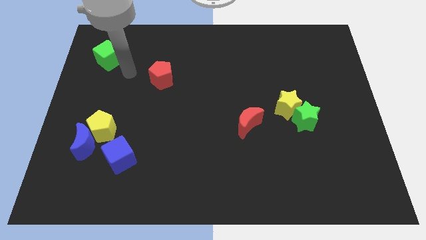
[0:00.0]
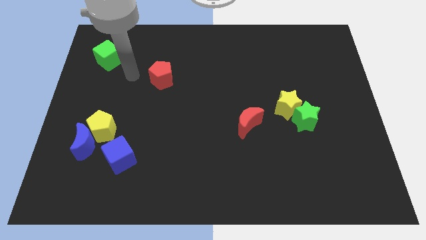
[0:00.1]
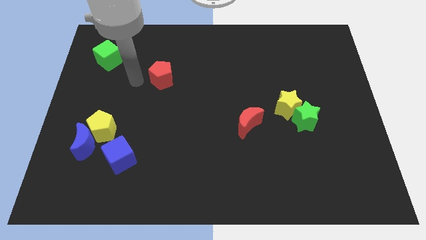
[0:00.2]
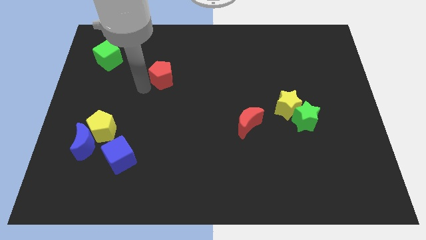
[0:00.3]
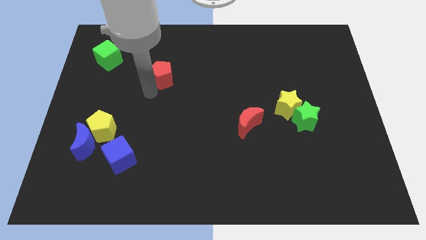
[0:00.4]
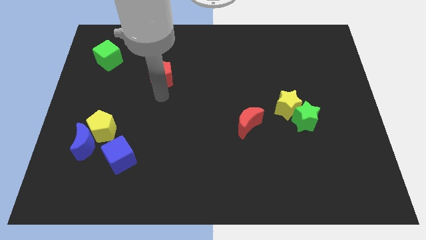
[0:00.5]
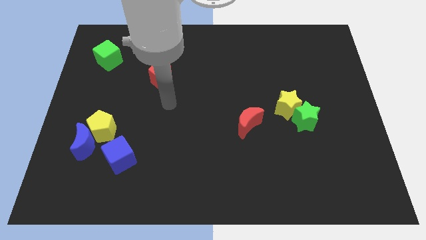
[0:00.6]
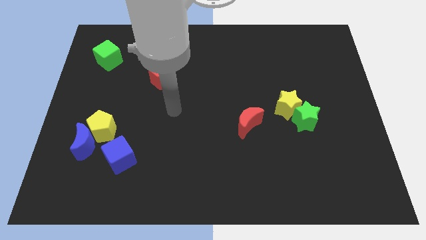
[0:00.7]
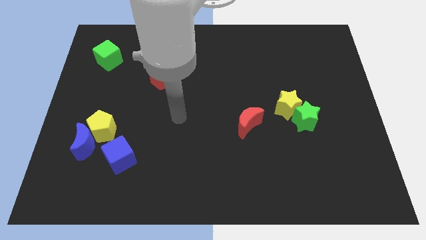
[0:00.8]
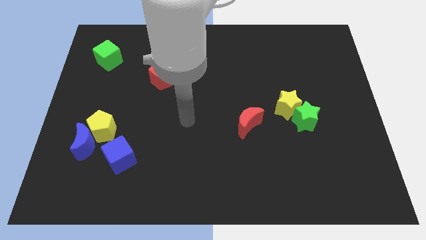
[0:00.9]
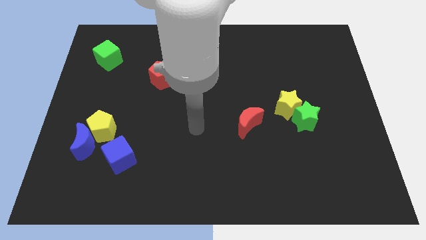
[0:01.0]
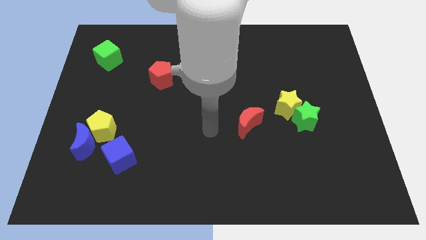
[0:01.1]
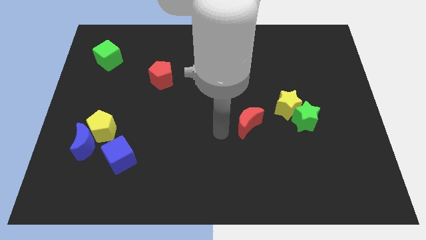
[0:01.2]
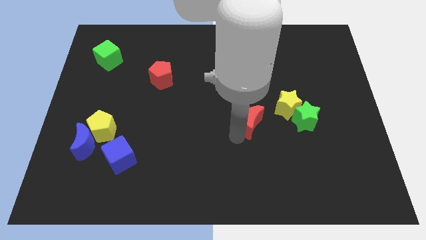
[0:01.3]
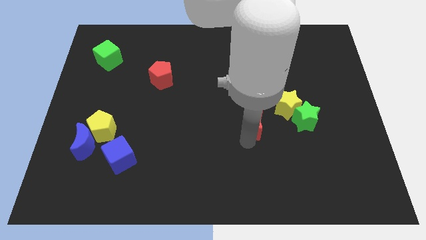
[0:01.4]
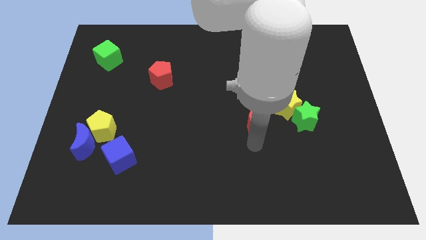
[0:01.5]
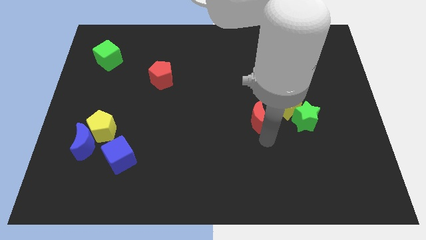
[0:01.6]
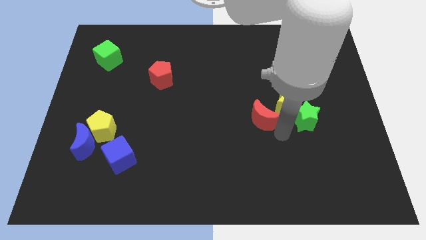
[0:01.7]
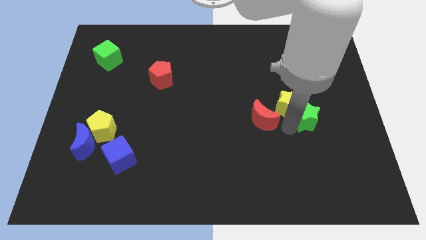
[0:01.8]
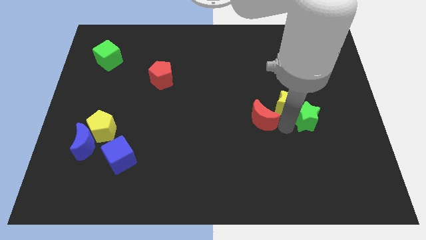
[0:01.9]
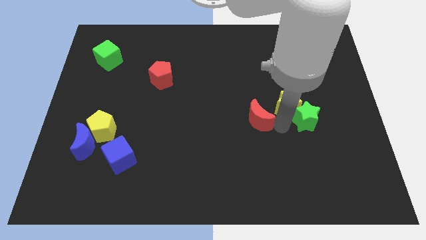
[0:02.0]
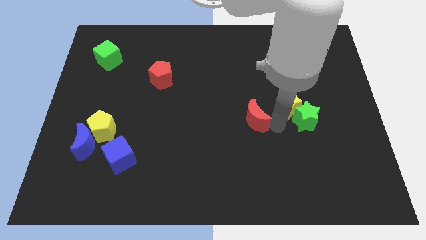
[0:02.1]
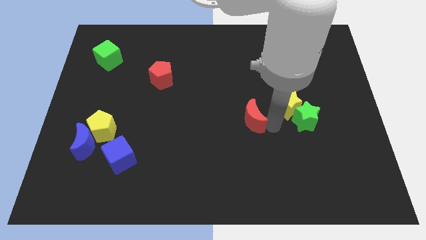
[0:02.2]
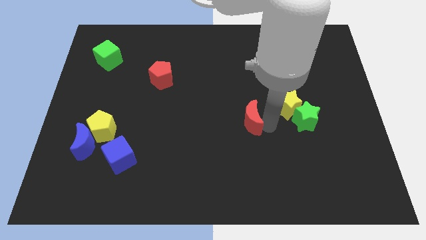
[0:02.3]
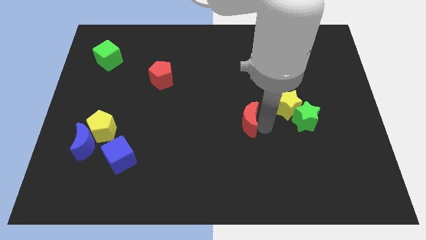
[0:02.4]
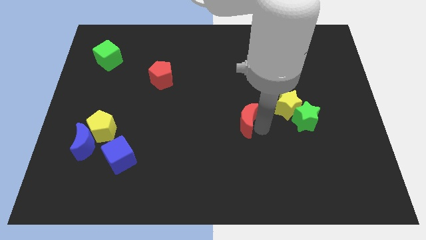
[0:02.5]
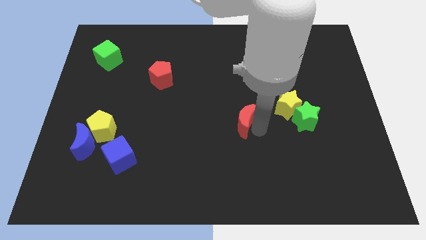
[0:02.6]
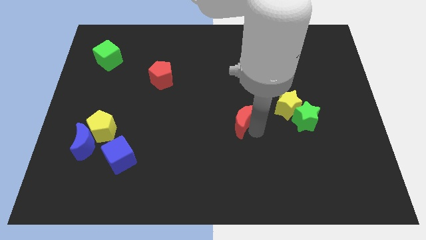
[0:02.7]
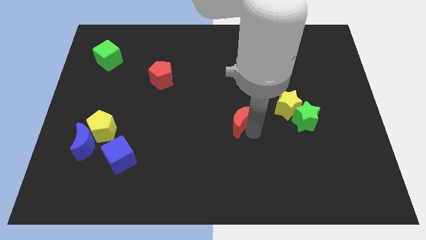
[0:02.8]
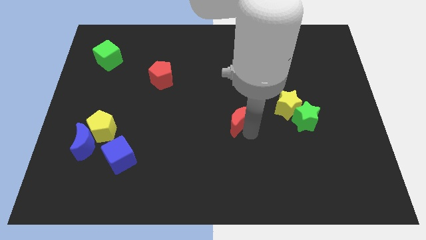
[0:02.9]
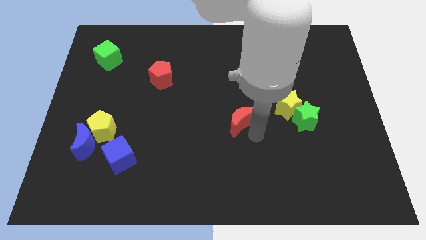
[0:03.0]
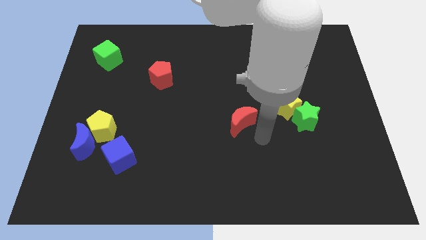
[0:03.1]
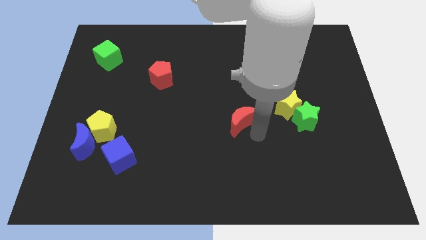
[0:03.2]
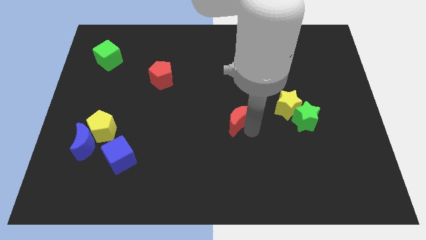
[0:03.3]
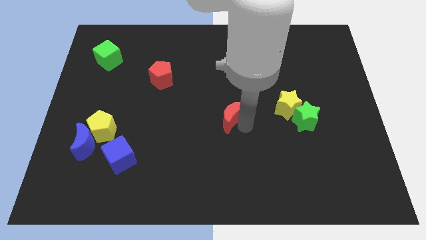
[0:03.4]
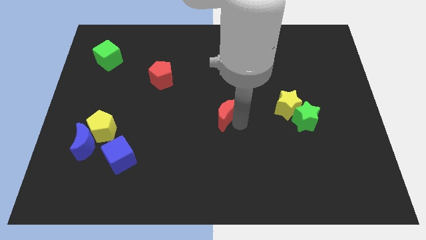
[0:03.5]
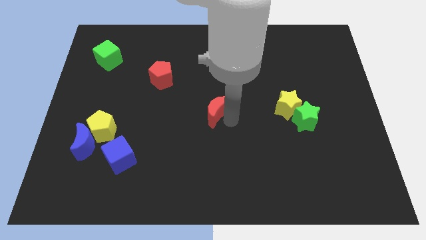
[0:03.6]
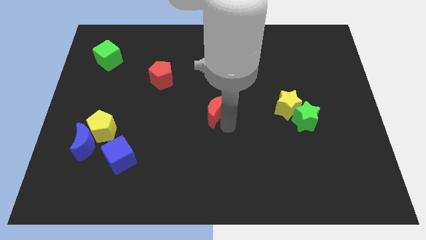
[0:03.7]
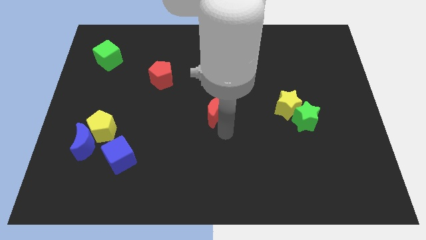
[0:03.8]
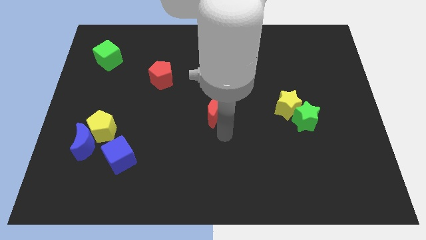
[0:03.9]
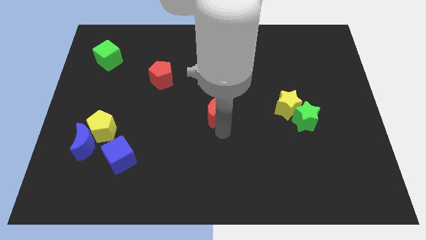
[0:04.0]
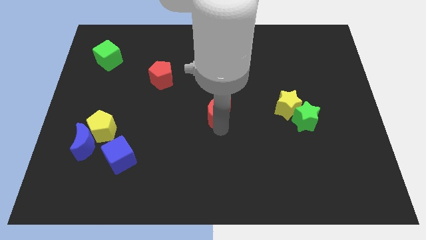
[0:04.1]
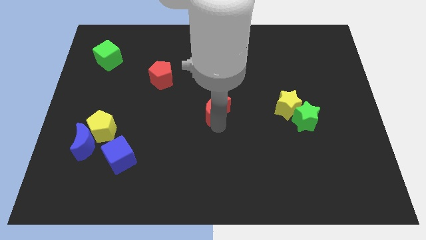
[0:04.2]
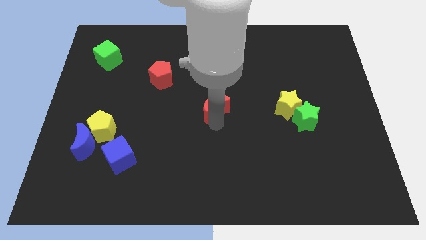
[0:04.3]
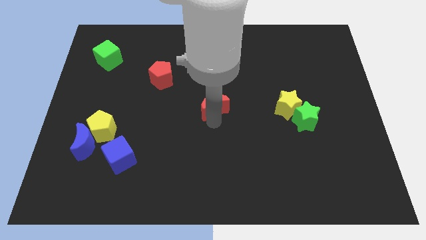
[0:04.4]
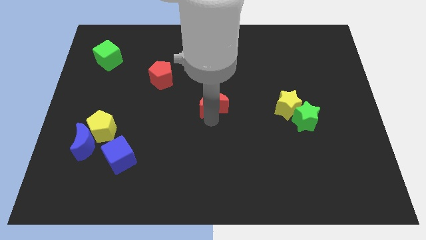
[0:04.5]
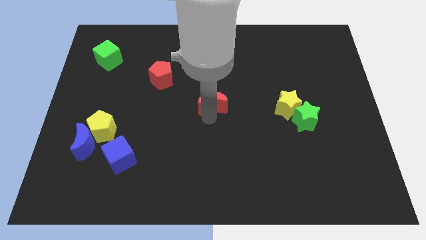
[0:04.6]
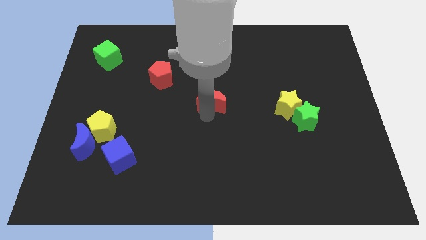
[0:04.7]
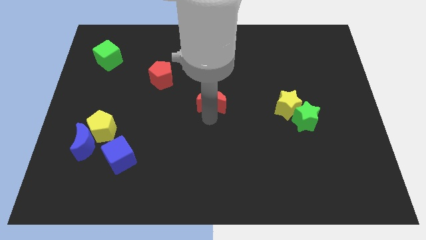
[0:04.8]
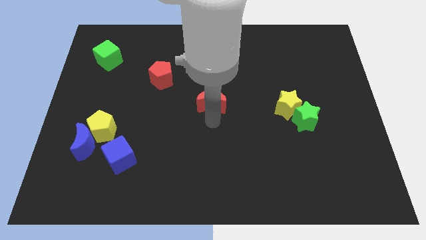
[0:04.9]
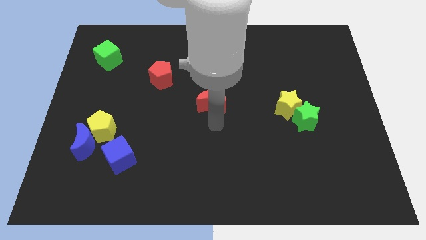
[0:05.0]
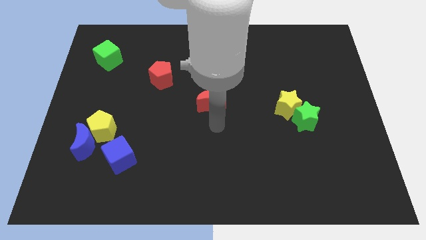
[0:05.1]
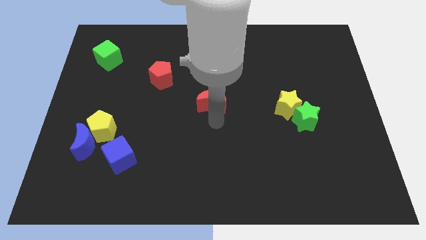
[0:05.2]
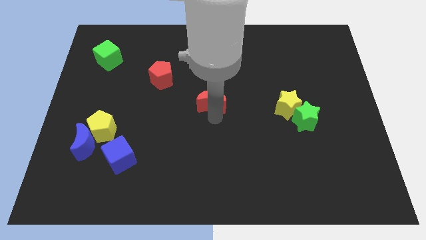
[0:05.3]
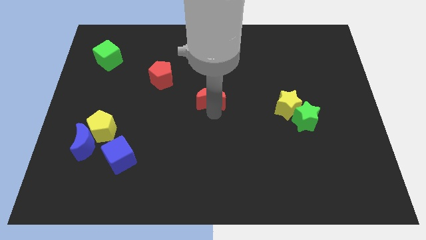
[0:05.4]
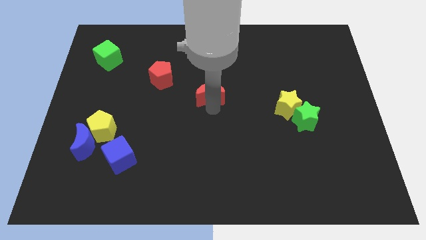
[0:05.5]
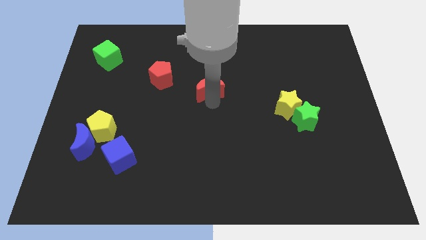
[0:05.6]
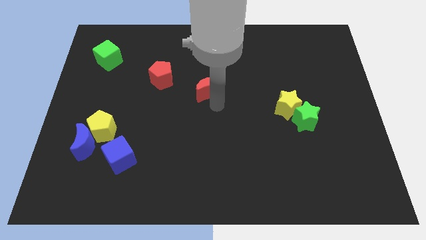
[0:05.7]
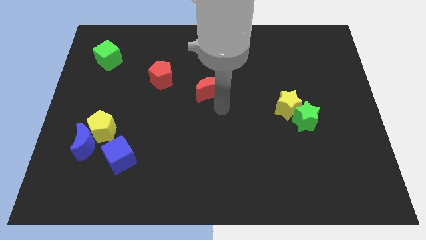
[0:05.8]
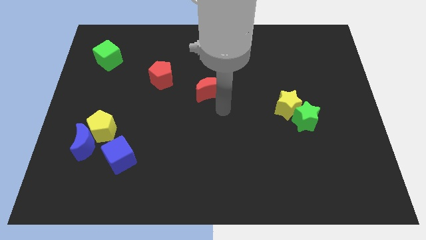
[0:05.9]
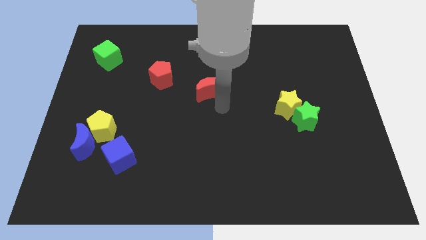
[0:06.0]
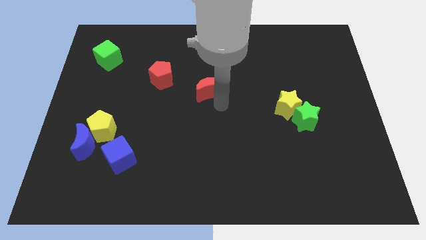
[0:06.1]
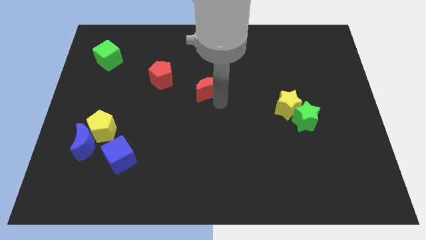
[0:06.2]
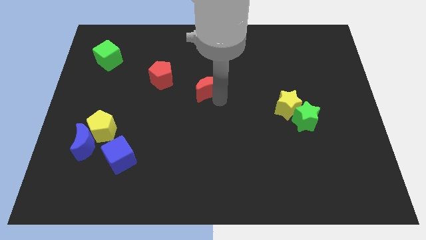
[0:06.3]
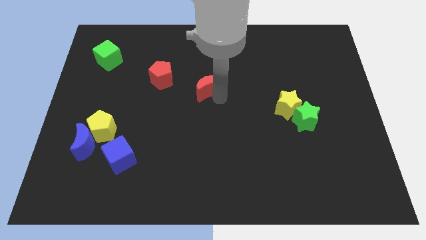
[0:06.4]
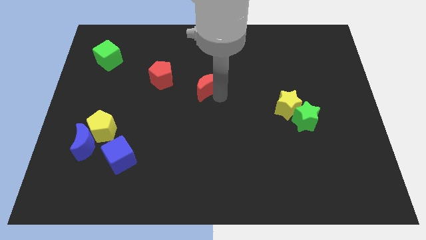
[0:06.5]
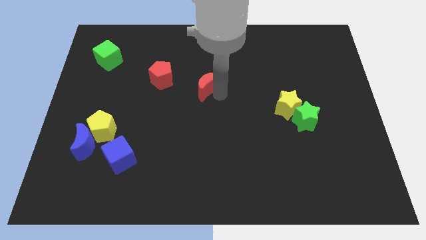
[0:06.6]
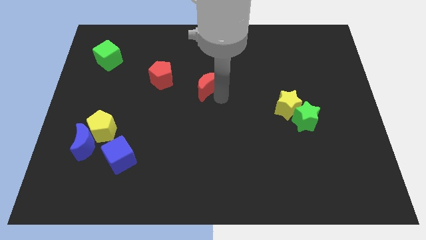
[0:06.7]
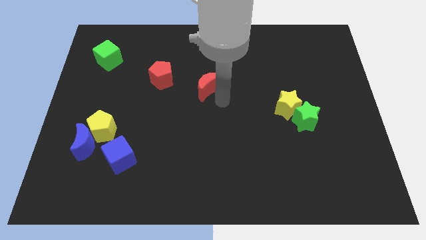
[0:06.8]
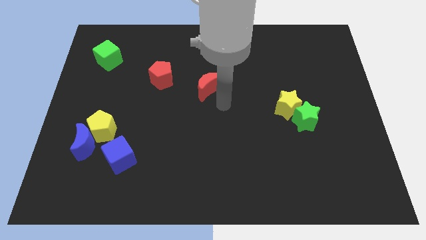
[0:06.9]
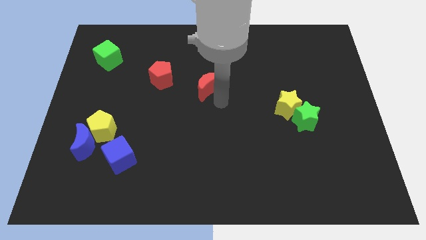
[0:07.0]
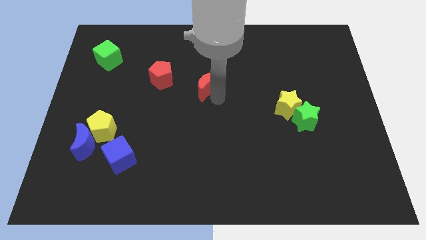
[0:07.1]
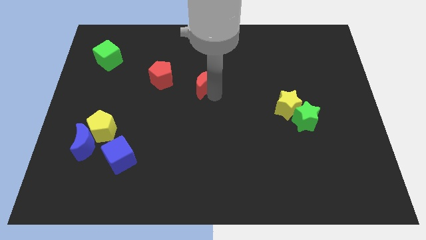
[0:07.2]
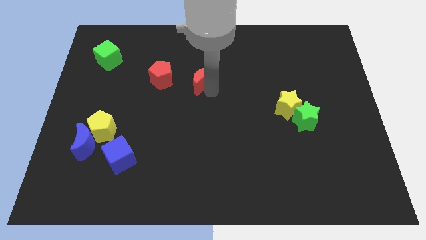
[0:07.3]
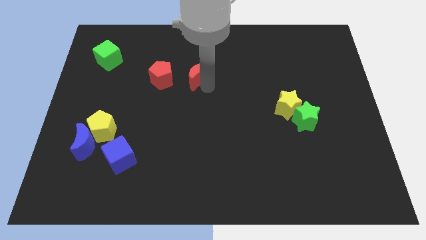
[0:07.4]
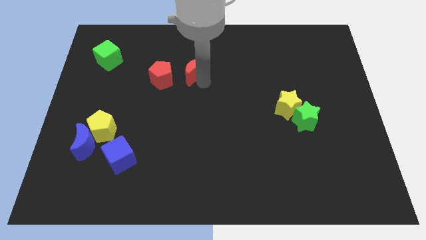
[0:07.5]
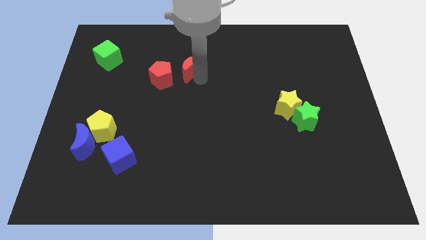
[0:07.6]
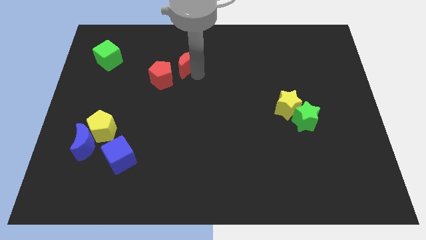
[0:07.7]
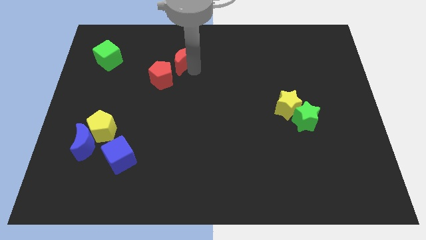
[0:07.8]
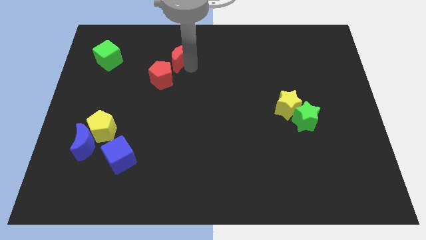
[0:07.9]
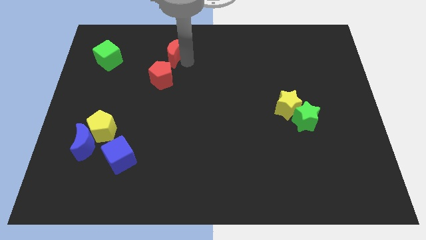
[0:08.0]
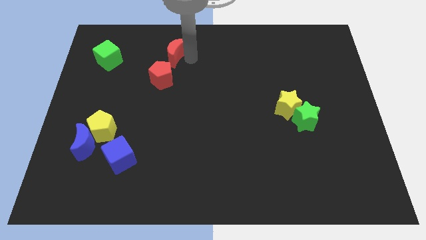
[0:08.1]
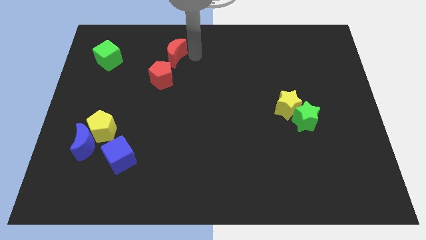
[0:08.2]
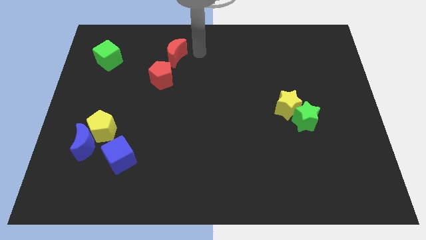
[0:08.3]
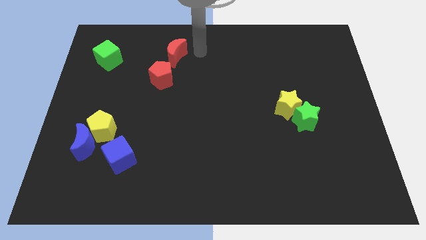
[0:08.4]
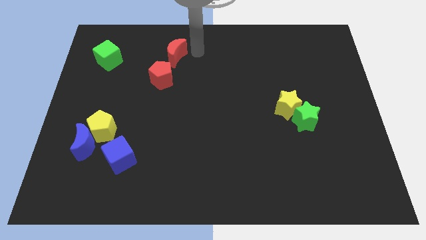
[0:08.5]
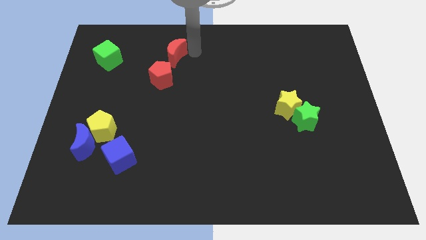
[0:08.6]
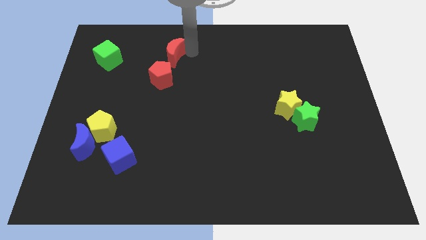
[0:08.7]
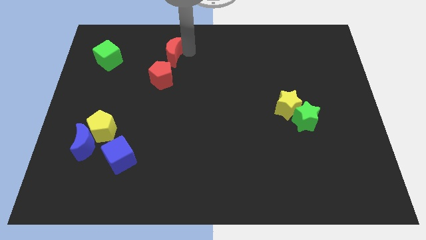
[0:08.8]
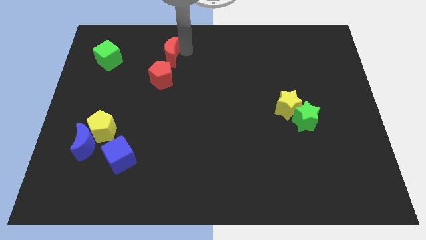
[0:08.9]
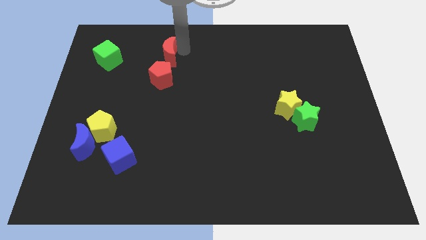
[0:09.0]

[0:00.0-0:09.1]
put the red moon right of the green cube
